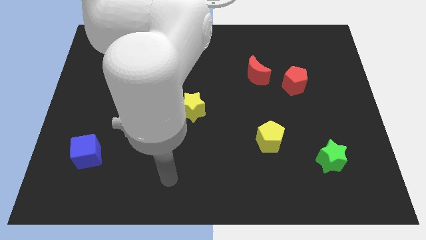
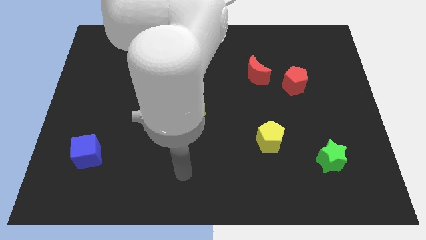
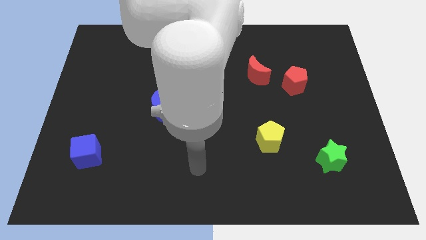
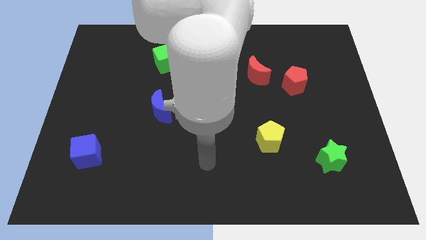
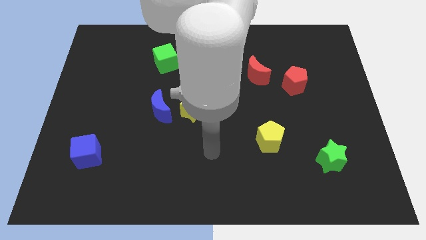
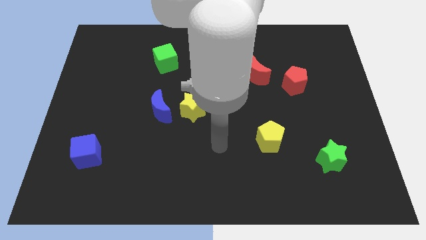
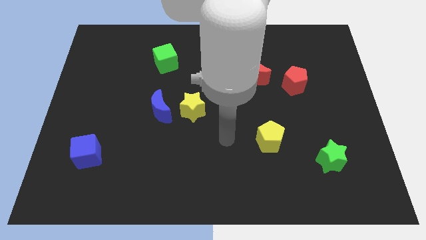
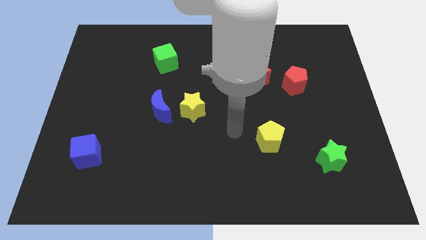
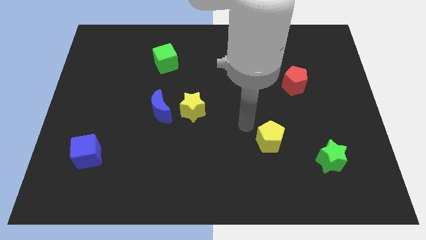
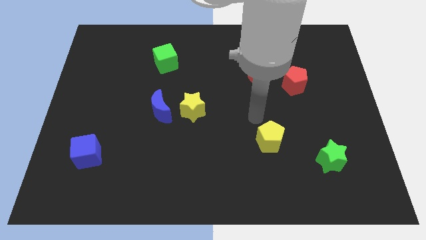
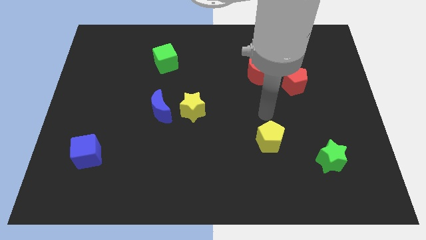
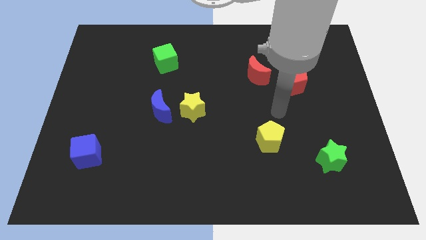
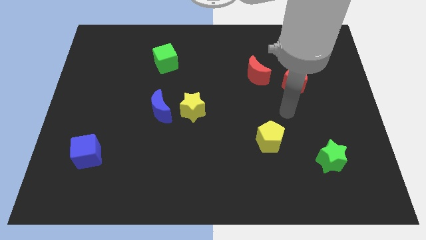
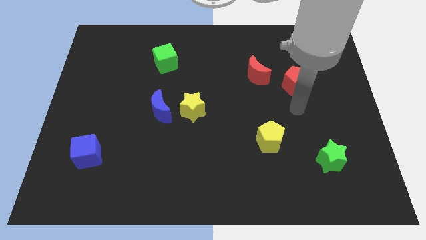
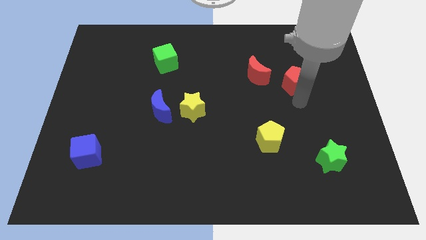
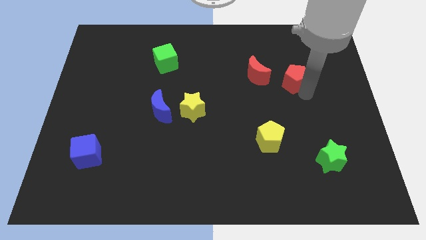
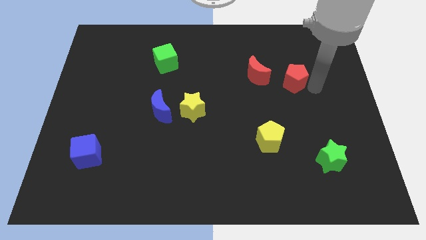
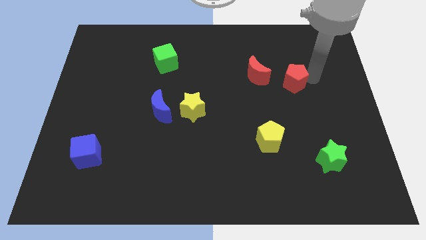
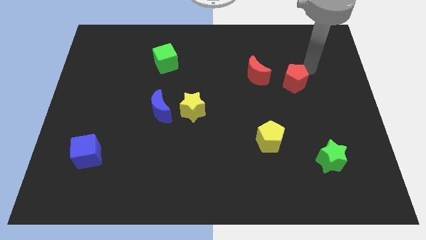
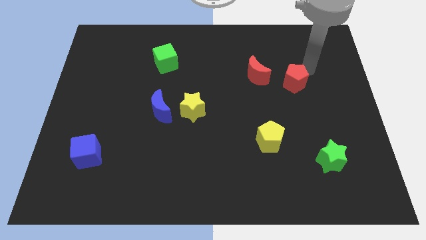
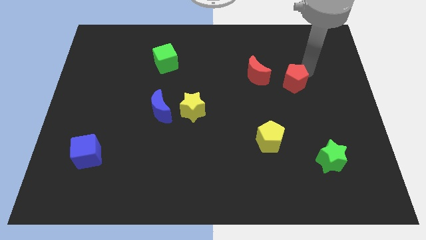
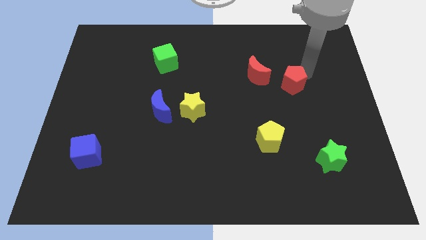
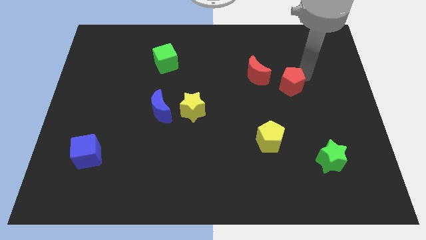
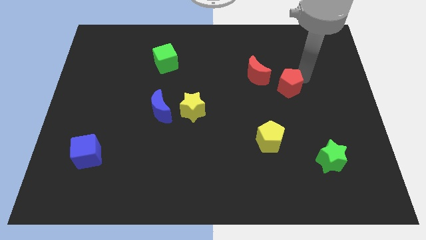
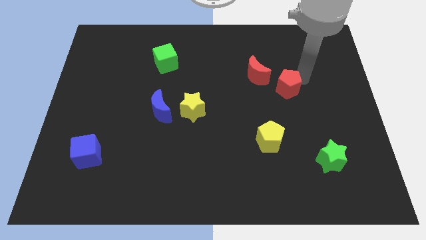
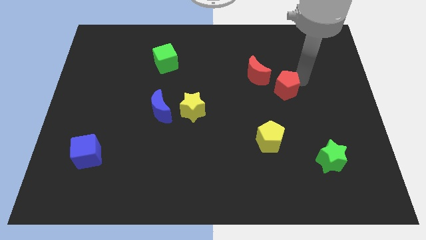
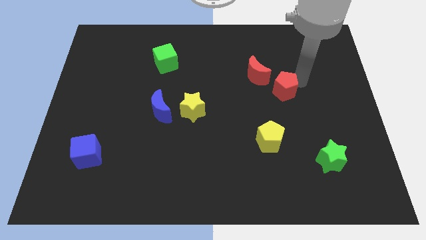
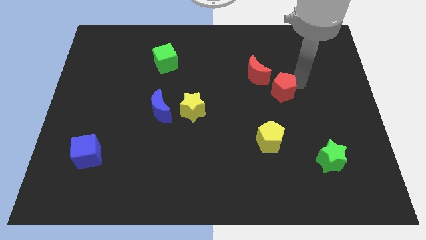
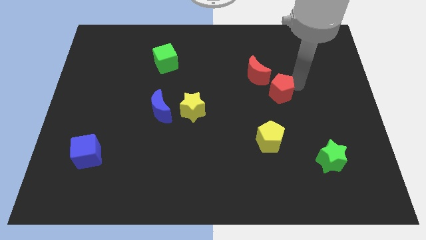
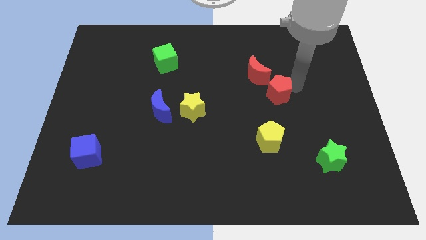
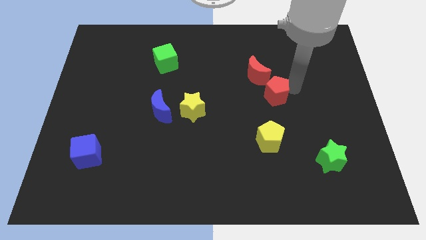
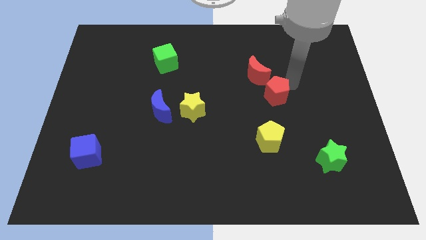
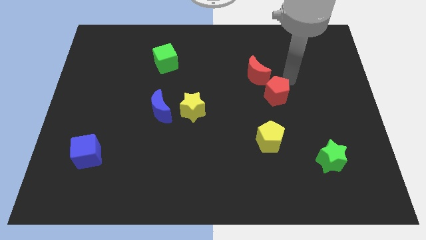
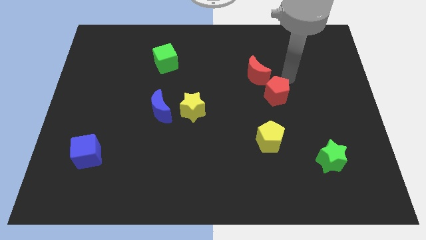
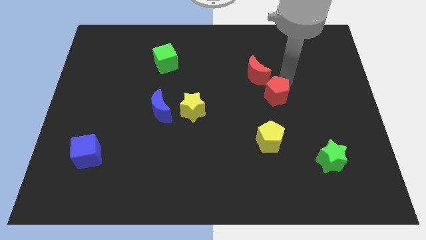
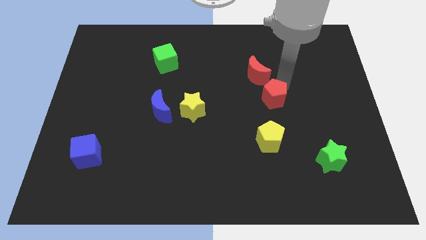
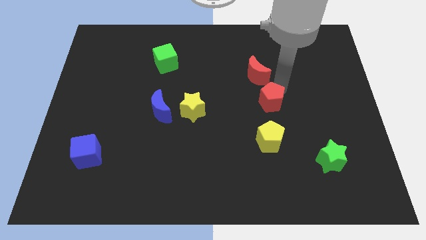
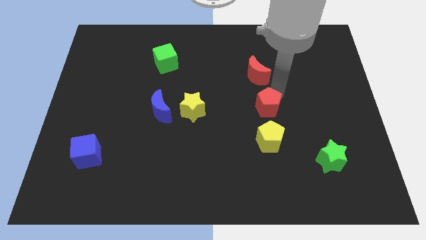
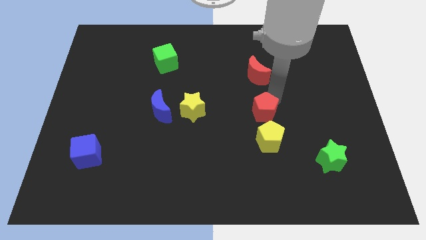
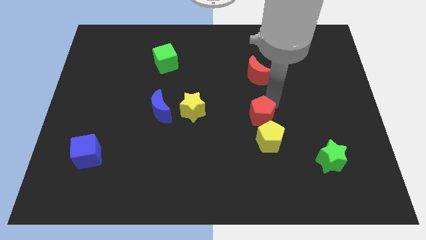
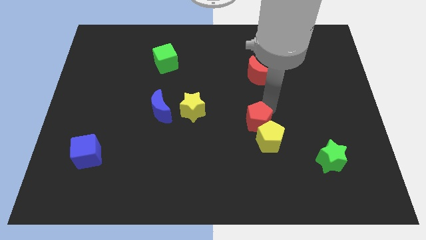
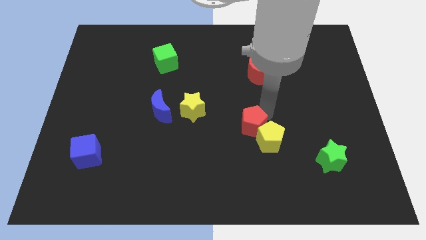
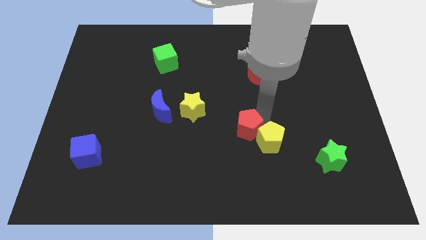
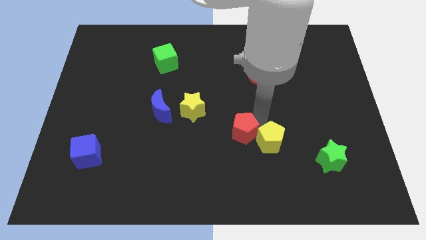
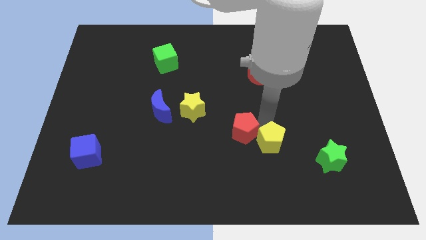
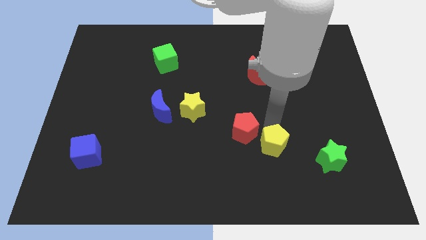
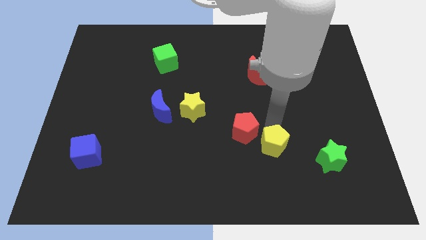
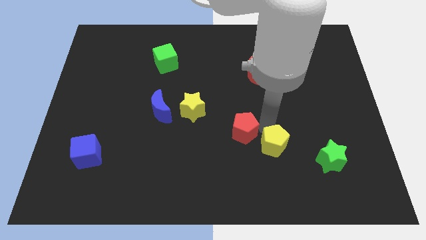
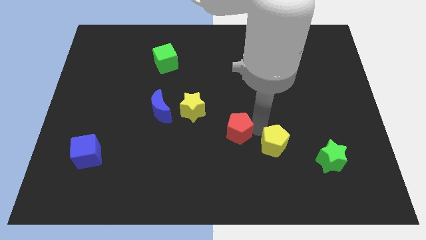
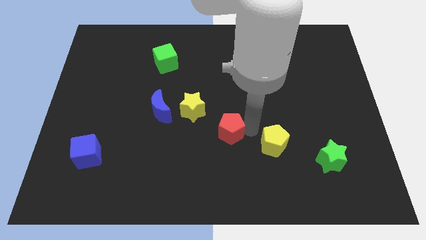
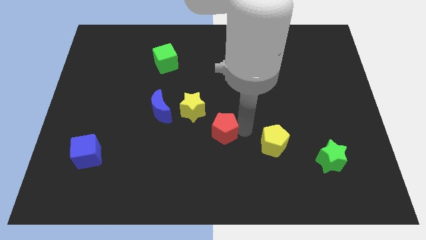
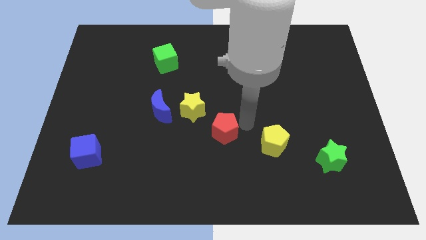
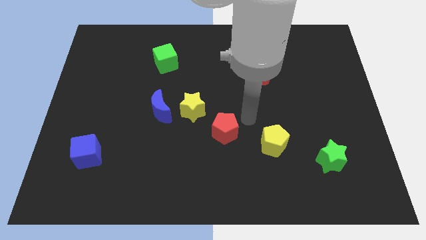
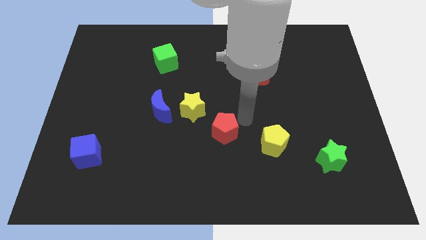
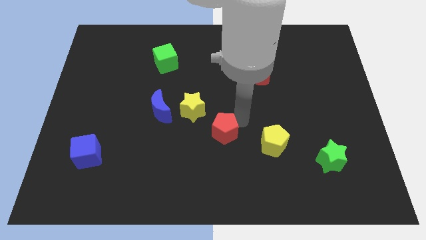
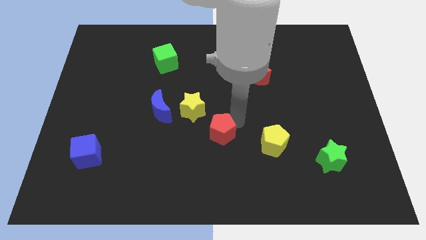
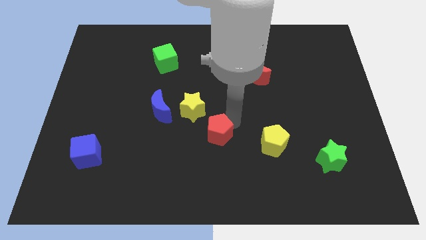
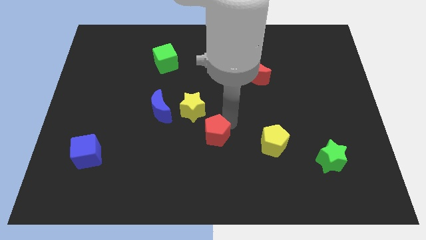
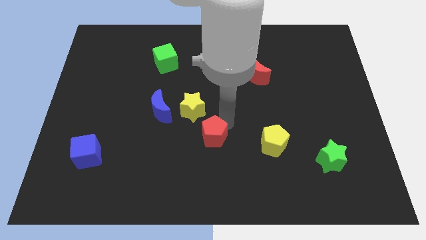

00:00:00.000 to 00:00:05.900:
move the red pentagon to the bottom side of the yellow star

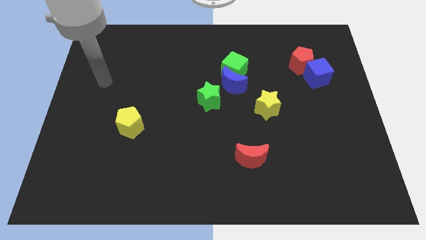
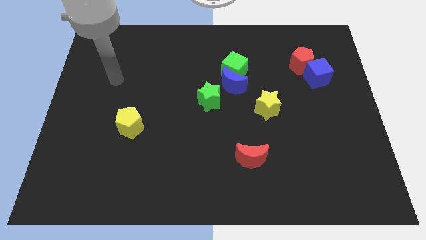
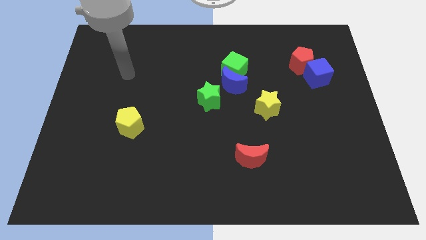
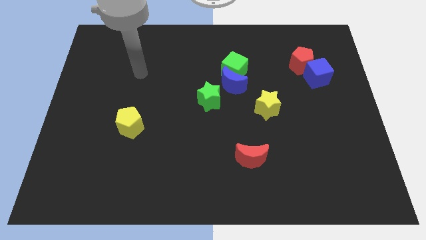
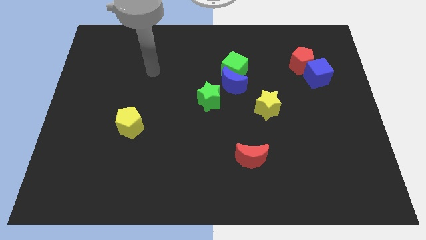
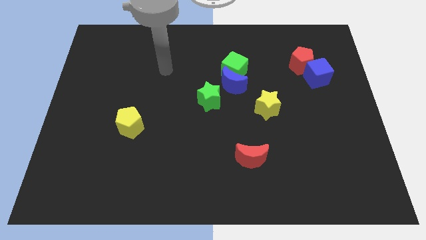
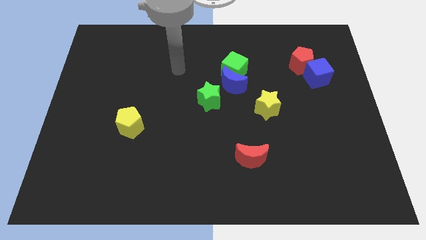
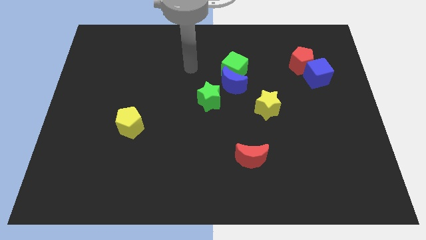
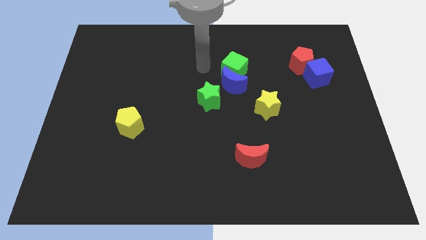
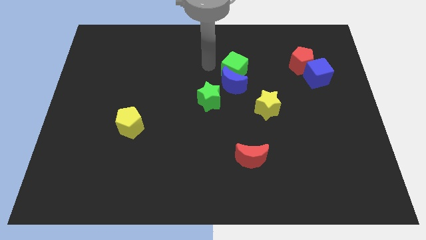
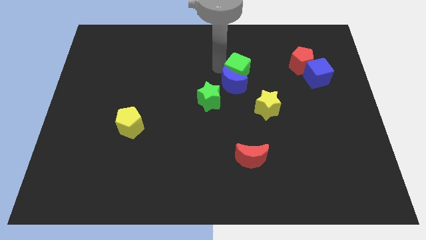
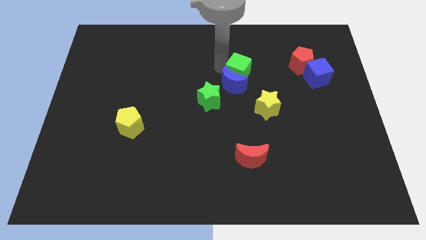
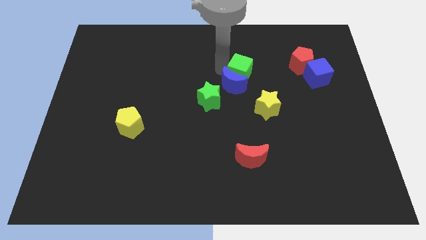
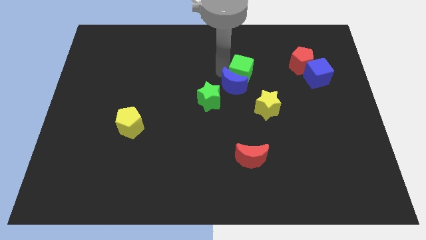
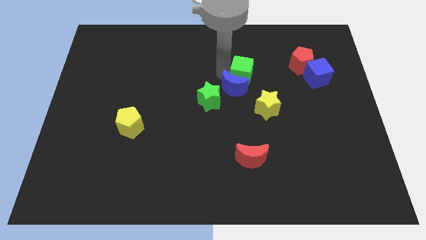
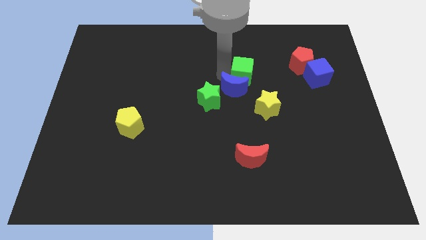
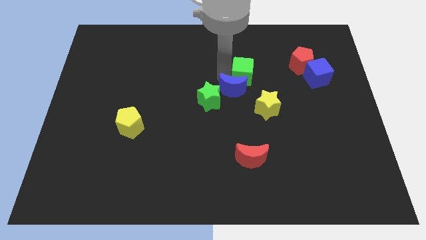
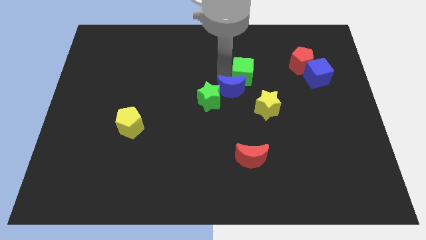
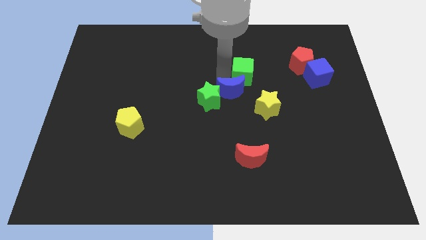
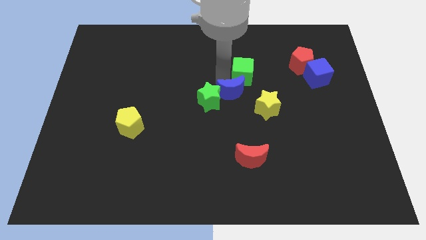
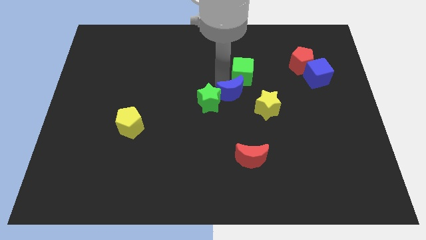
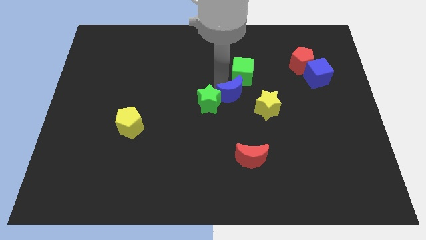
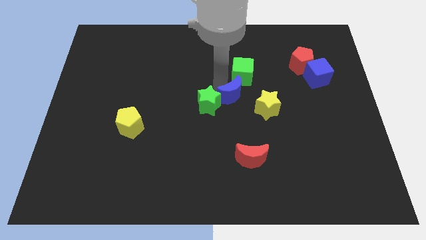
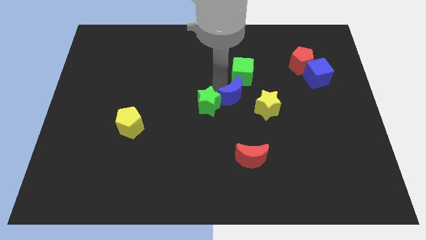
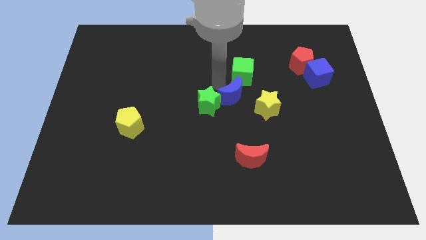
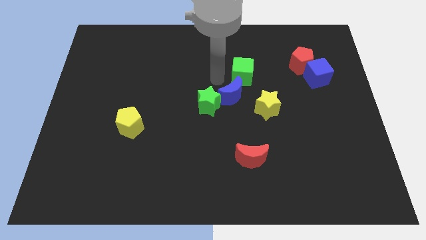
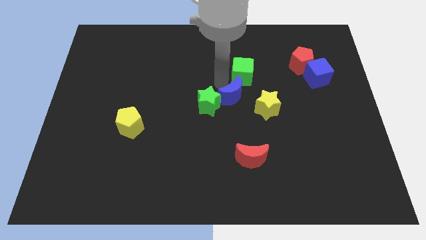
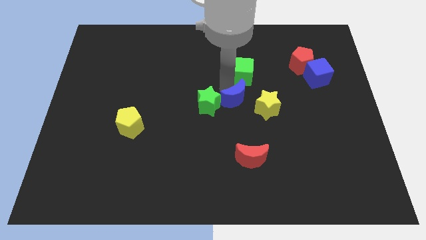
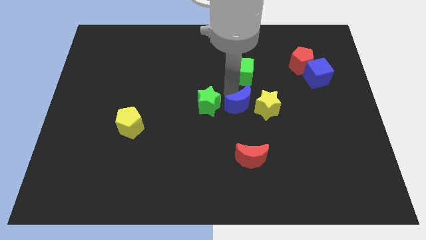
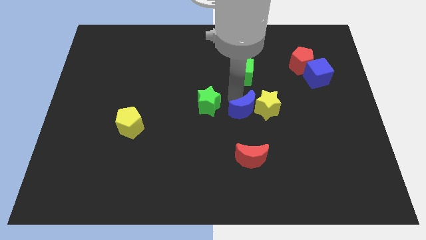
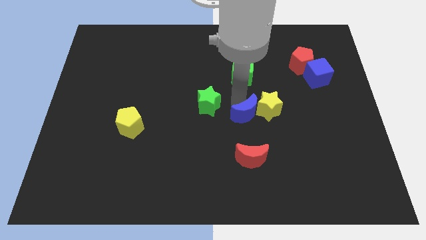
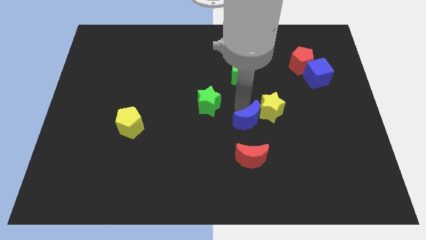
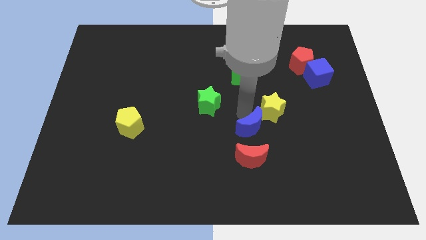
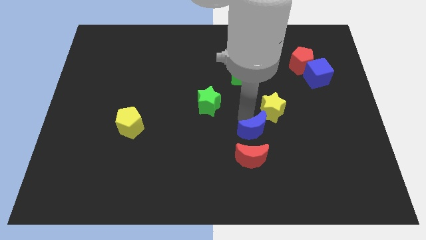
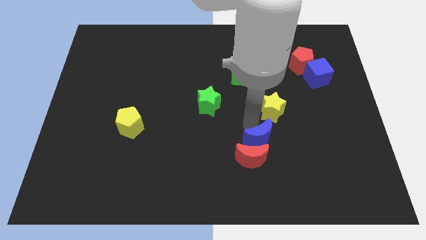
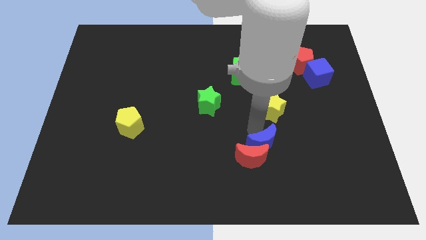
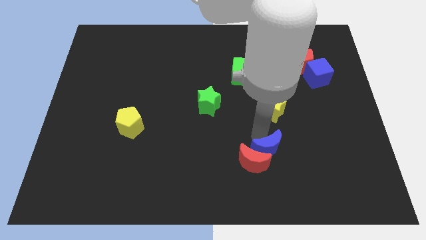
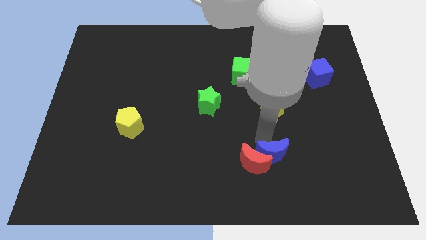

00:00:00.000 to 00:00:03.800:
put the blue moon to the bottom right side of the red moon
